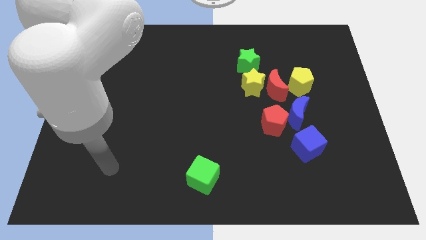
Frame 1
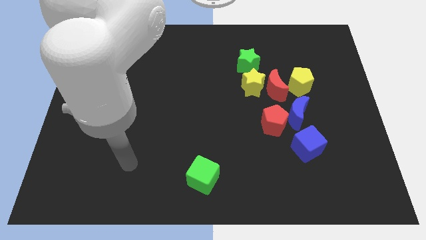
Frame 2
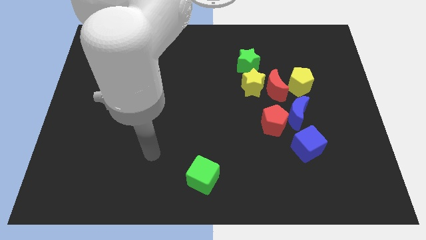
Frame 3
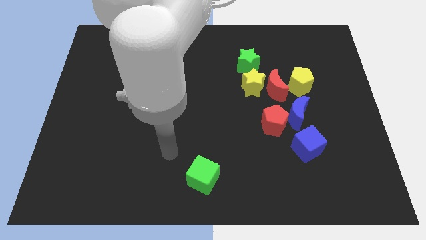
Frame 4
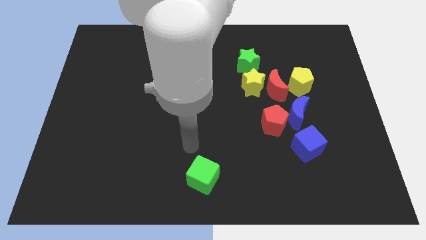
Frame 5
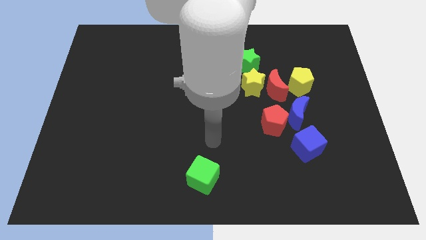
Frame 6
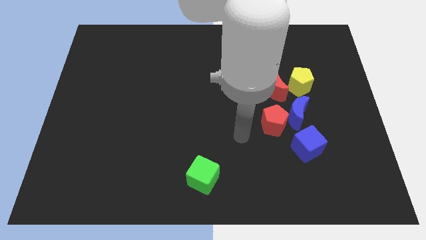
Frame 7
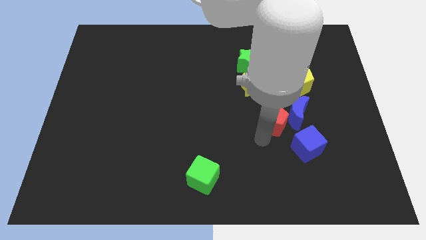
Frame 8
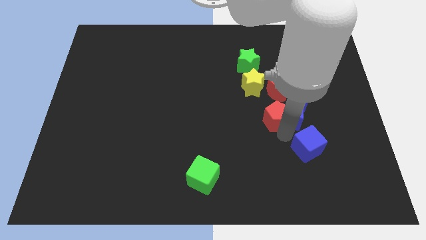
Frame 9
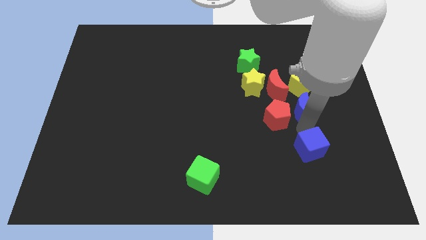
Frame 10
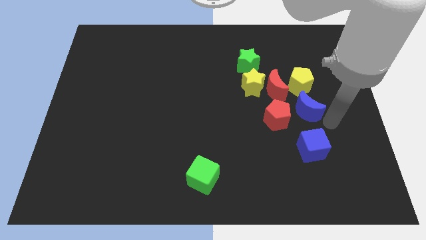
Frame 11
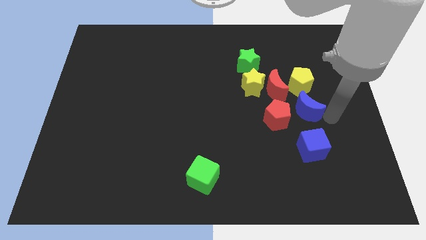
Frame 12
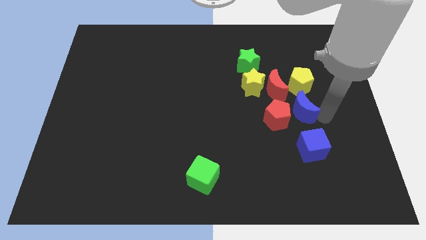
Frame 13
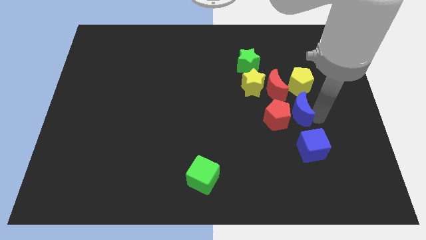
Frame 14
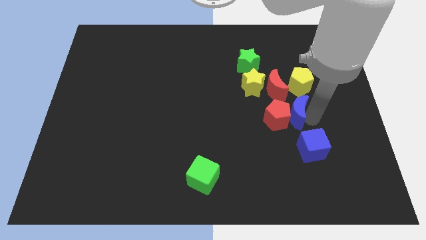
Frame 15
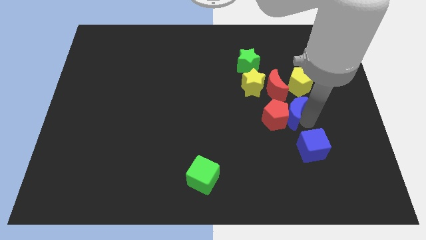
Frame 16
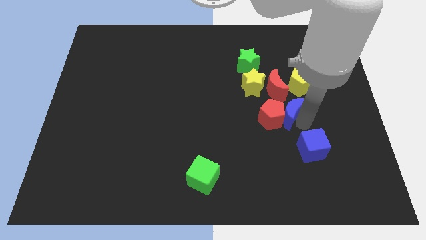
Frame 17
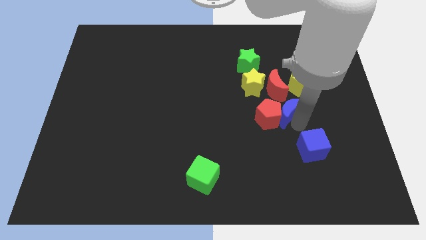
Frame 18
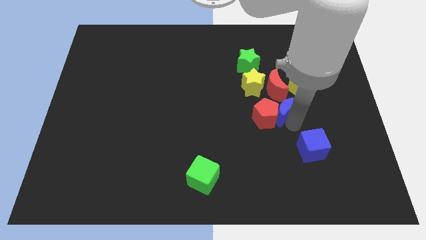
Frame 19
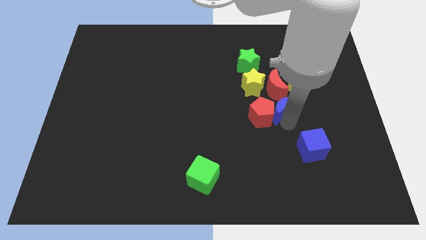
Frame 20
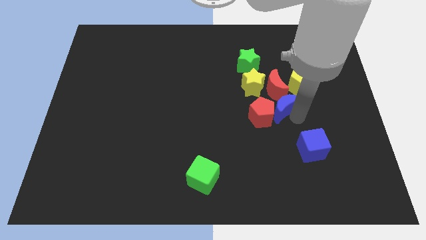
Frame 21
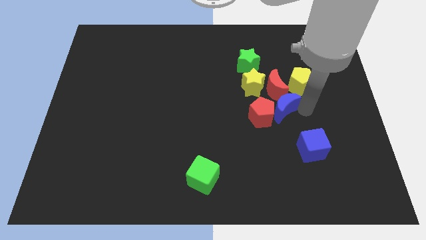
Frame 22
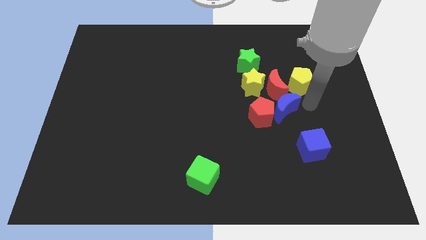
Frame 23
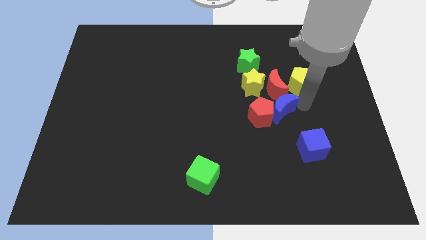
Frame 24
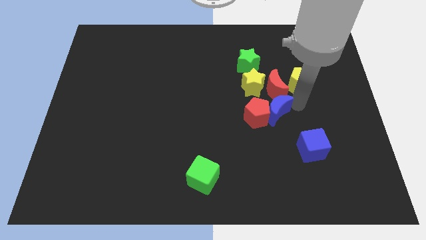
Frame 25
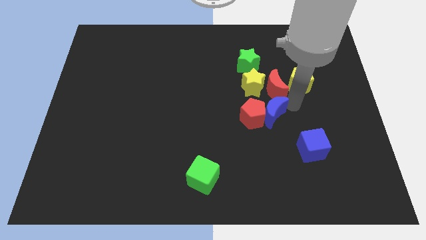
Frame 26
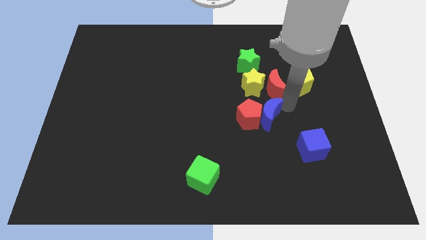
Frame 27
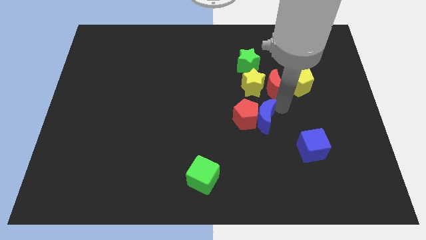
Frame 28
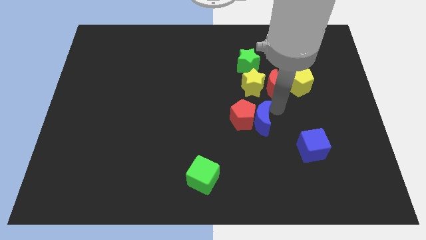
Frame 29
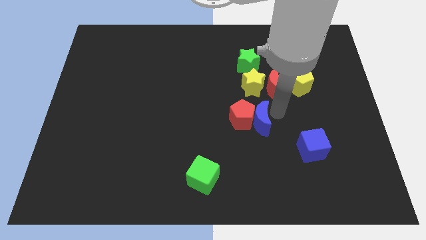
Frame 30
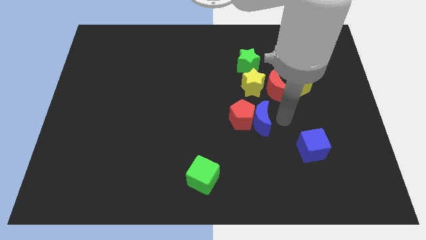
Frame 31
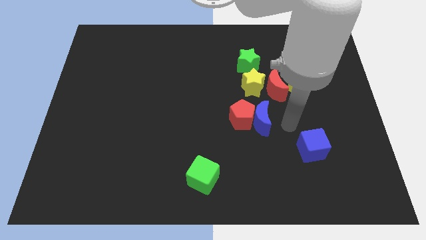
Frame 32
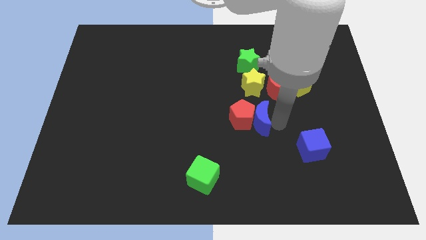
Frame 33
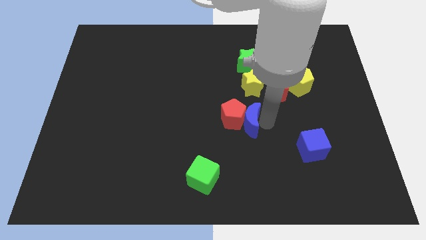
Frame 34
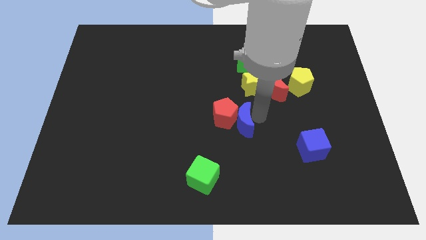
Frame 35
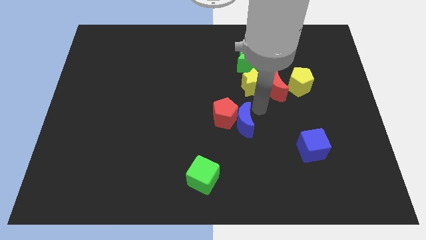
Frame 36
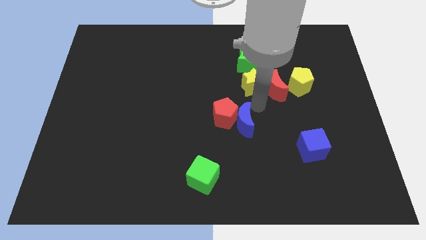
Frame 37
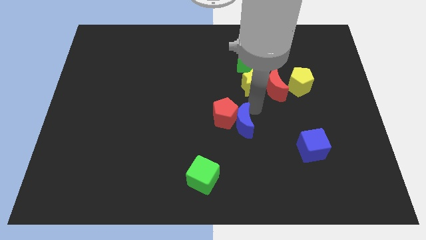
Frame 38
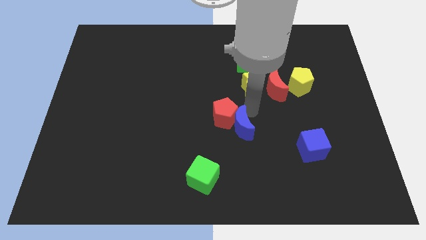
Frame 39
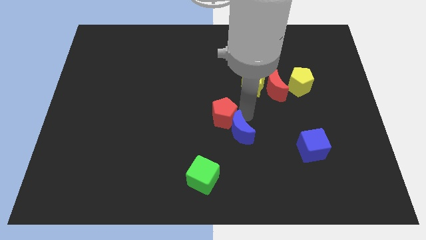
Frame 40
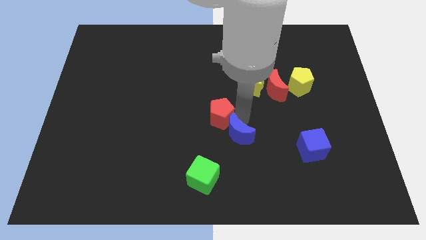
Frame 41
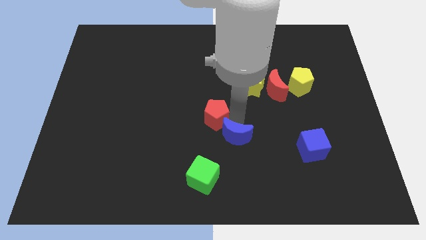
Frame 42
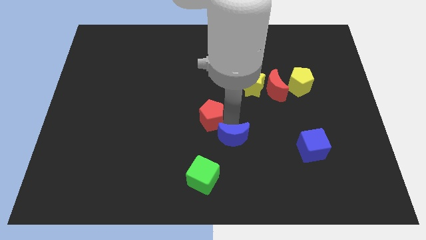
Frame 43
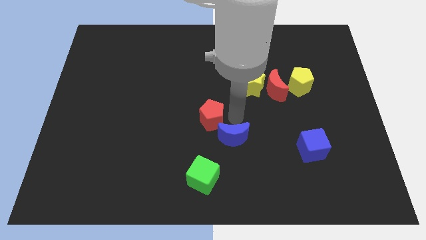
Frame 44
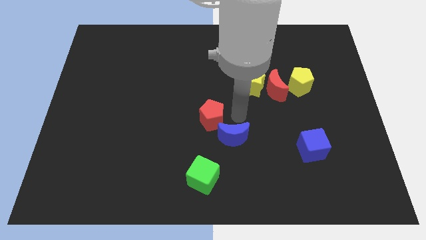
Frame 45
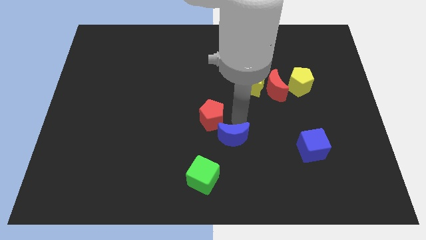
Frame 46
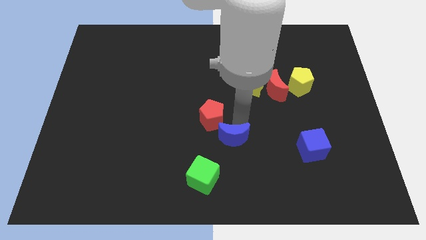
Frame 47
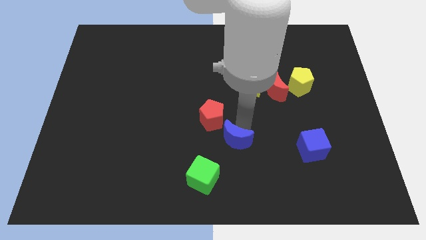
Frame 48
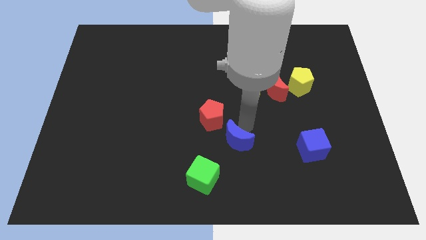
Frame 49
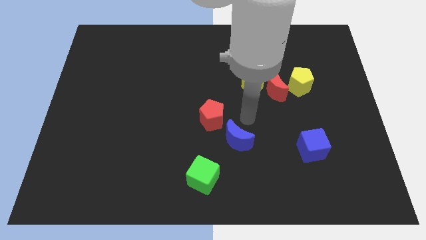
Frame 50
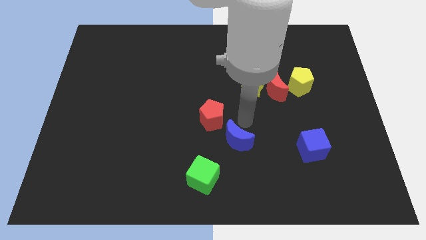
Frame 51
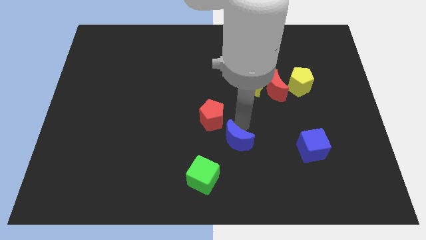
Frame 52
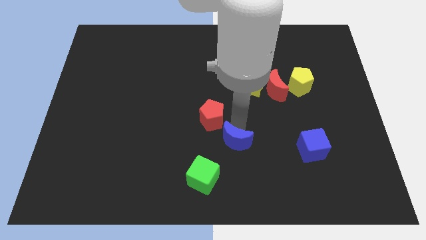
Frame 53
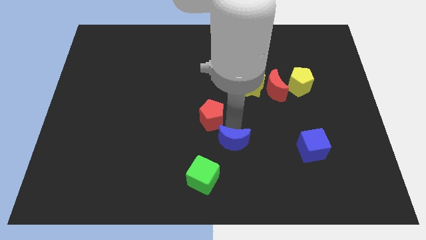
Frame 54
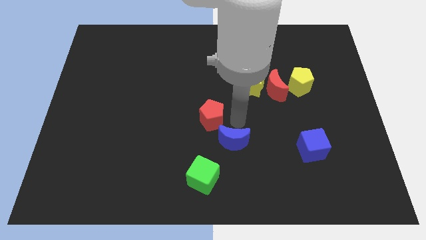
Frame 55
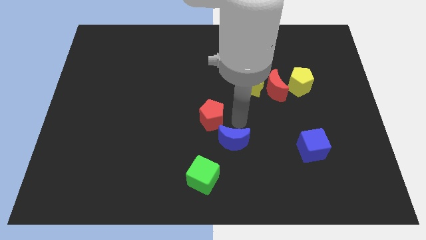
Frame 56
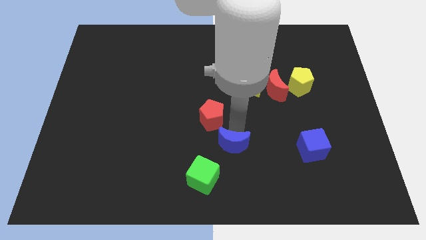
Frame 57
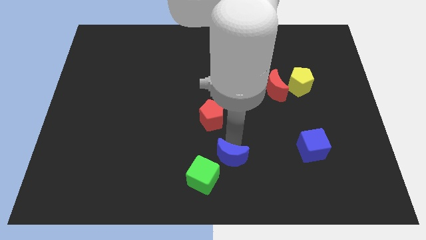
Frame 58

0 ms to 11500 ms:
push the blue moon to the bottom
